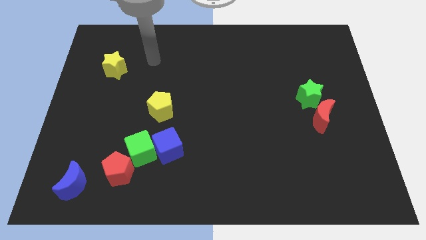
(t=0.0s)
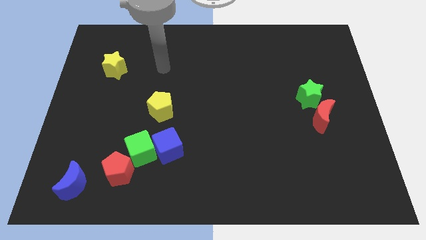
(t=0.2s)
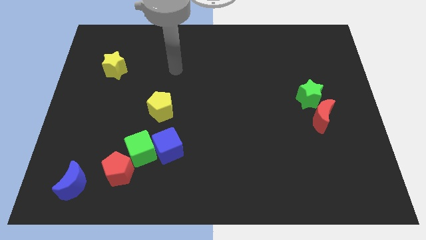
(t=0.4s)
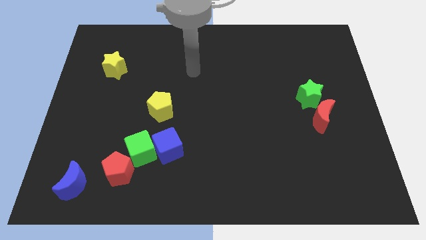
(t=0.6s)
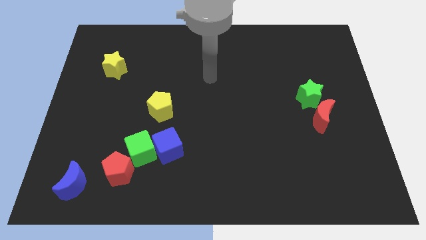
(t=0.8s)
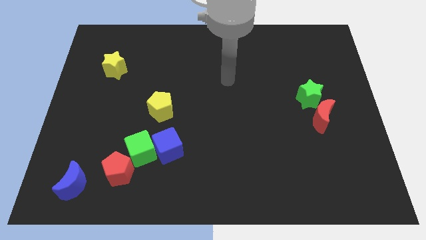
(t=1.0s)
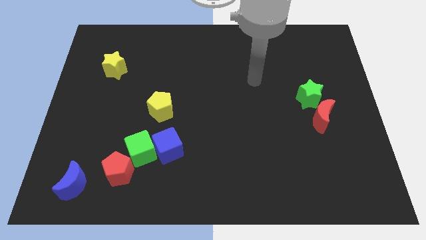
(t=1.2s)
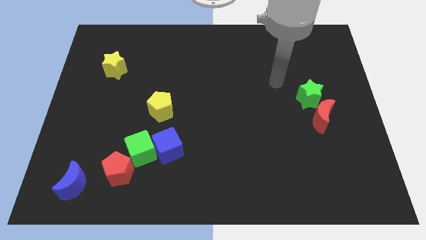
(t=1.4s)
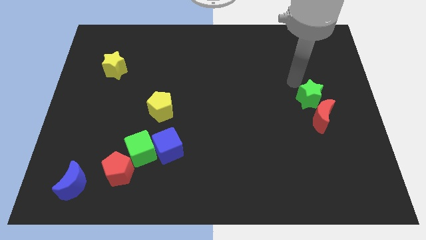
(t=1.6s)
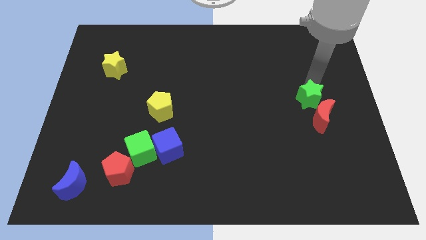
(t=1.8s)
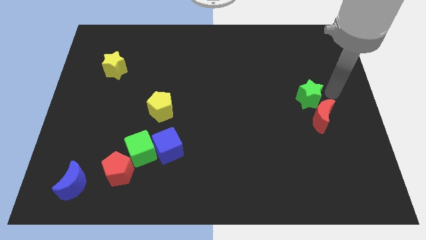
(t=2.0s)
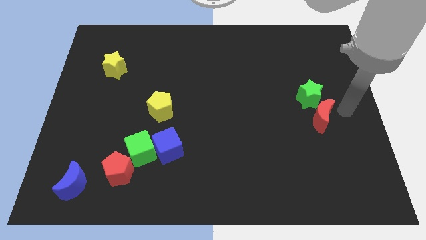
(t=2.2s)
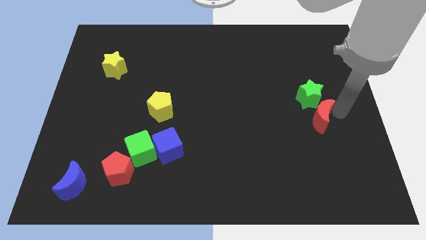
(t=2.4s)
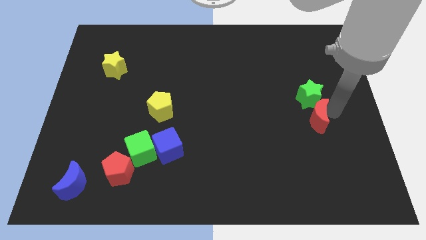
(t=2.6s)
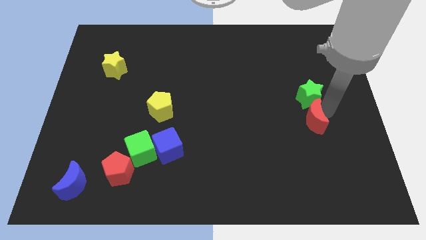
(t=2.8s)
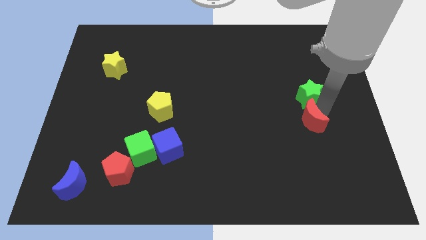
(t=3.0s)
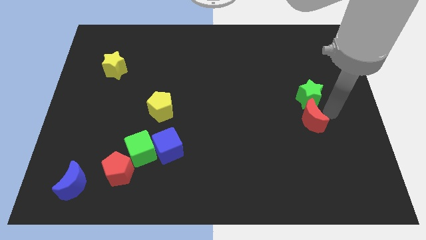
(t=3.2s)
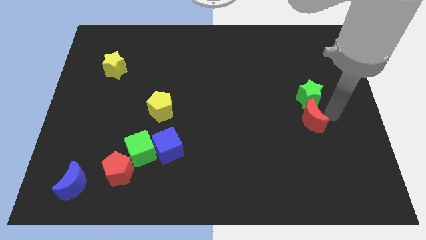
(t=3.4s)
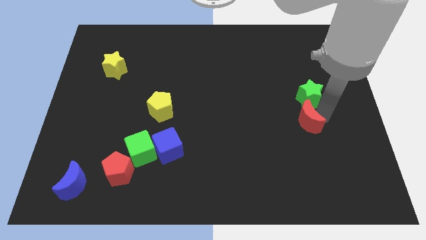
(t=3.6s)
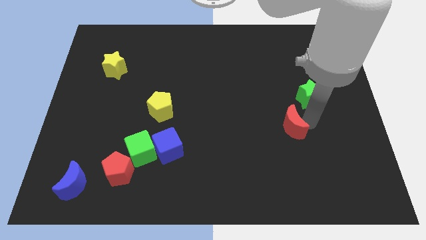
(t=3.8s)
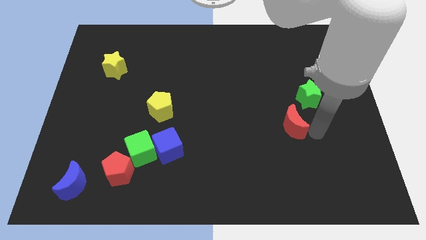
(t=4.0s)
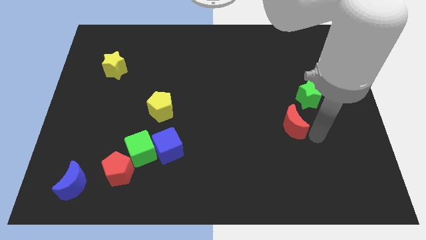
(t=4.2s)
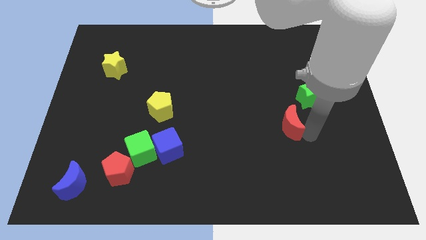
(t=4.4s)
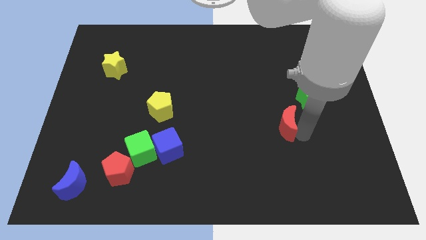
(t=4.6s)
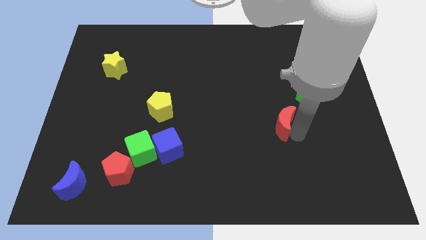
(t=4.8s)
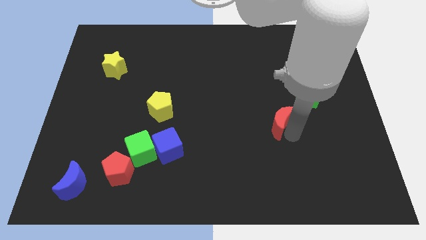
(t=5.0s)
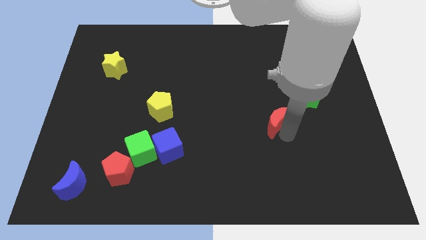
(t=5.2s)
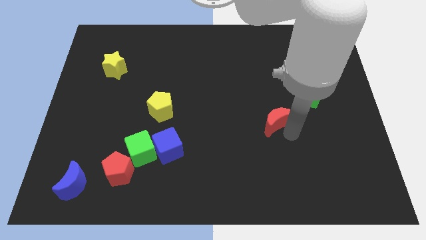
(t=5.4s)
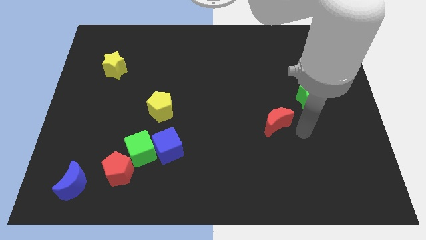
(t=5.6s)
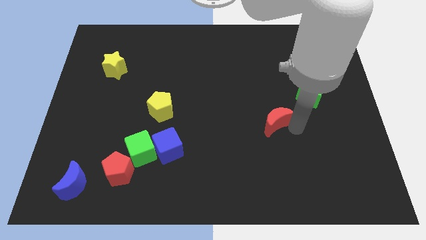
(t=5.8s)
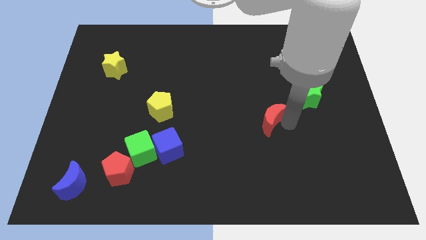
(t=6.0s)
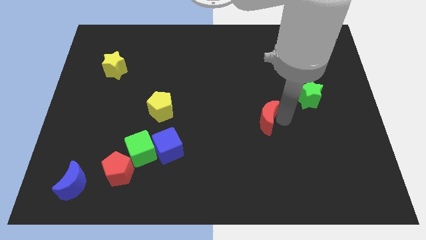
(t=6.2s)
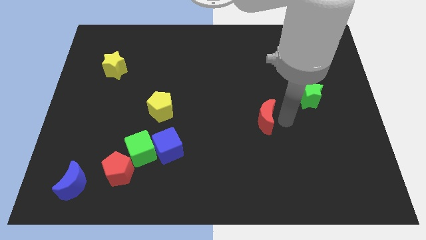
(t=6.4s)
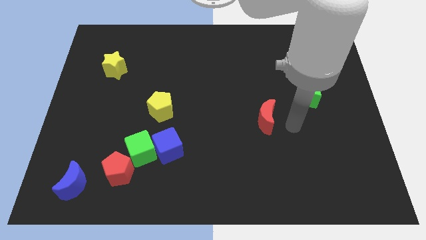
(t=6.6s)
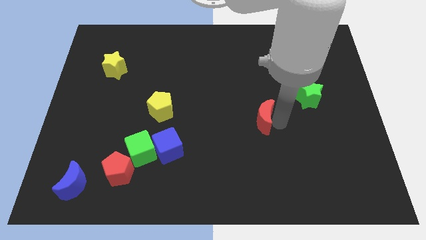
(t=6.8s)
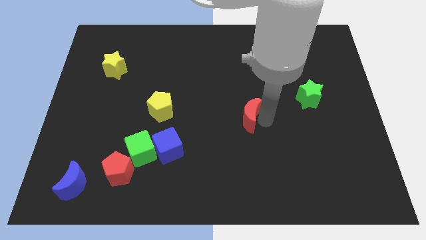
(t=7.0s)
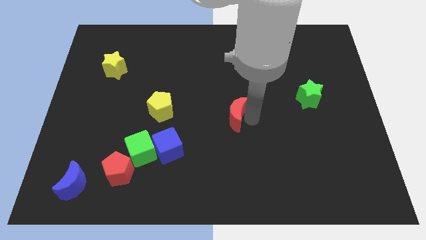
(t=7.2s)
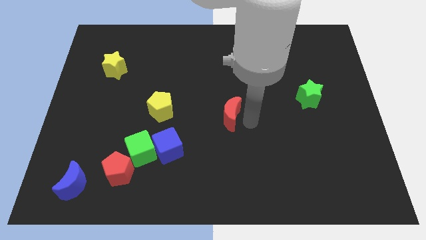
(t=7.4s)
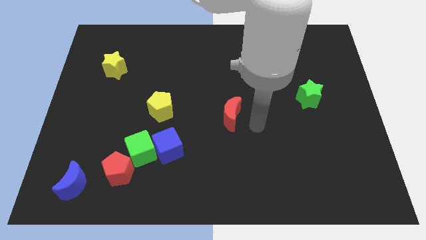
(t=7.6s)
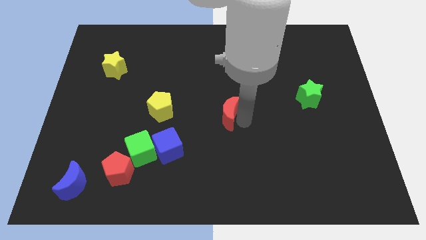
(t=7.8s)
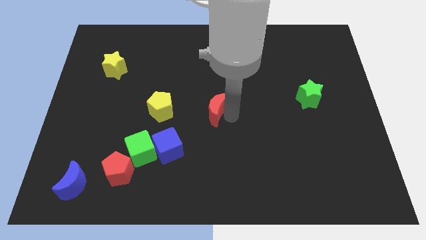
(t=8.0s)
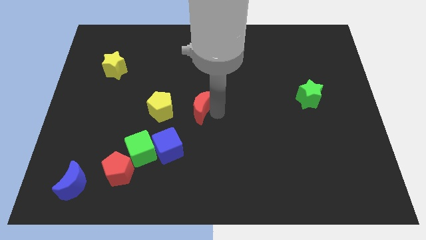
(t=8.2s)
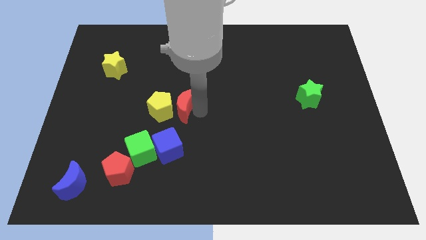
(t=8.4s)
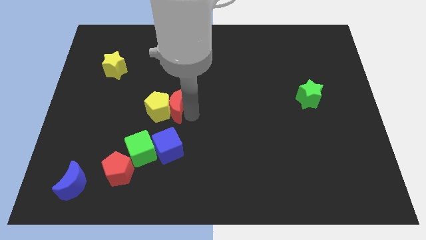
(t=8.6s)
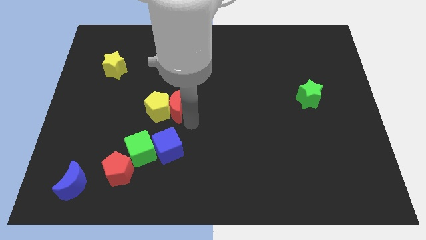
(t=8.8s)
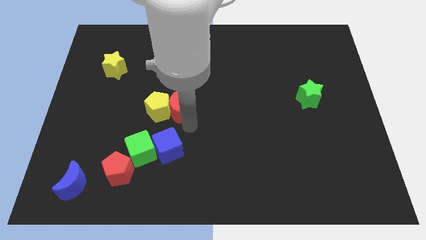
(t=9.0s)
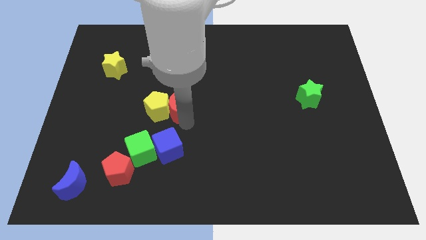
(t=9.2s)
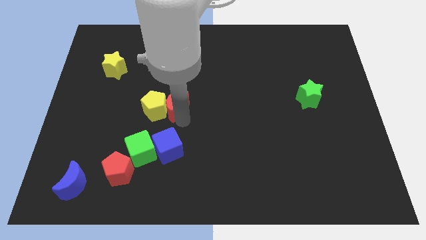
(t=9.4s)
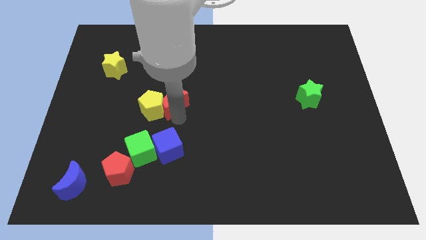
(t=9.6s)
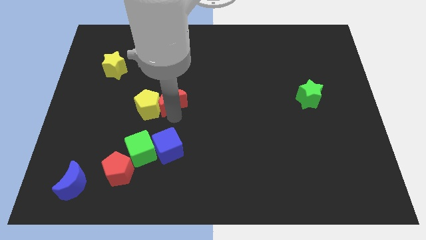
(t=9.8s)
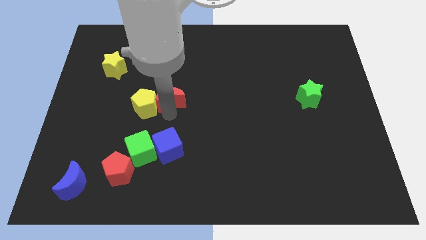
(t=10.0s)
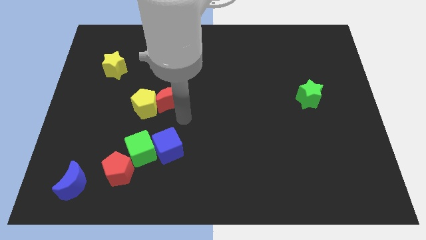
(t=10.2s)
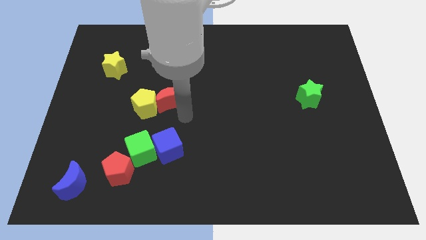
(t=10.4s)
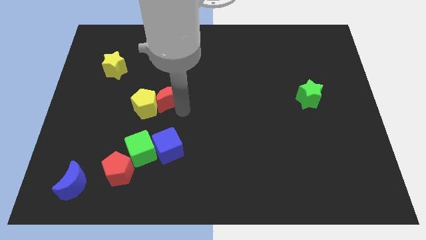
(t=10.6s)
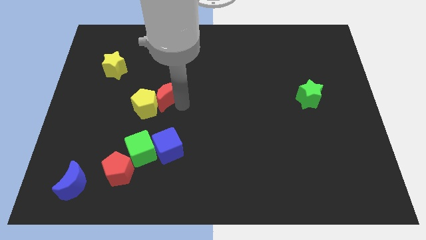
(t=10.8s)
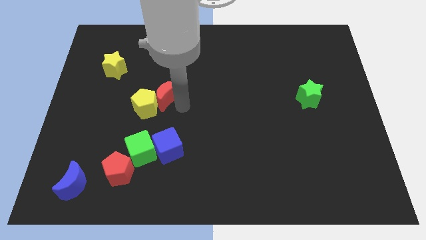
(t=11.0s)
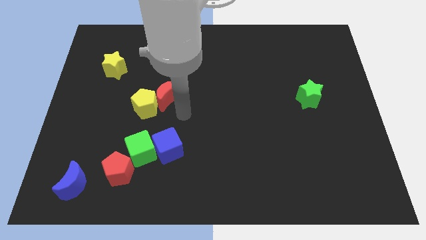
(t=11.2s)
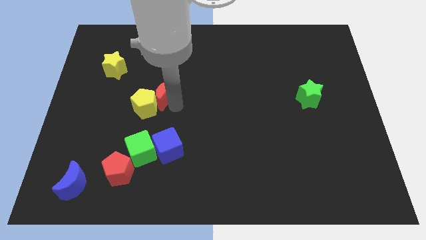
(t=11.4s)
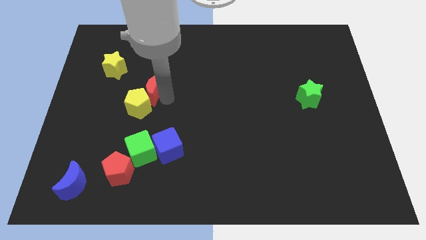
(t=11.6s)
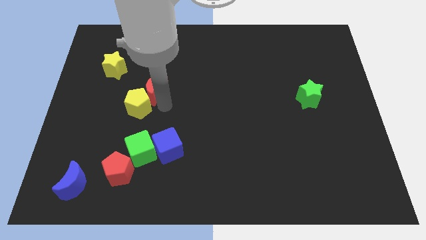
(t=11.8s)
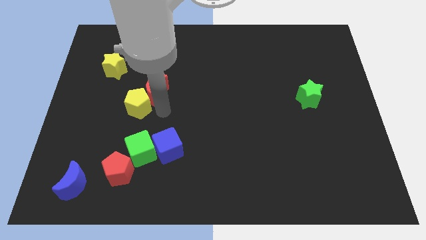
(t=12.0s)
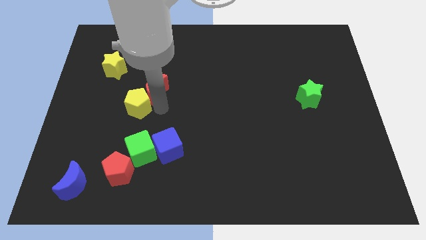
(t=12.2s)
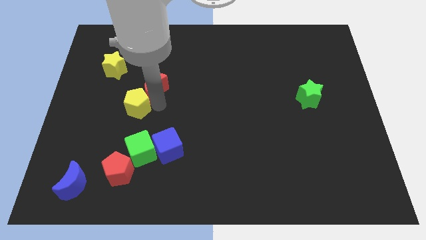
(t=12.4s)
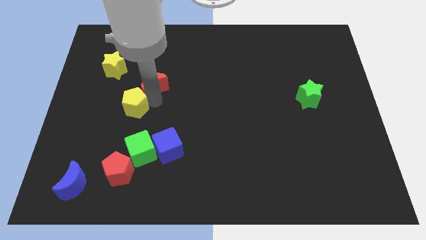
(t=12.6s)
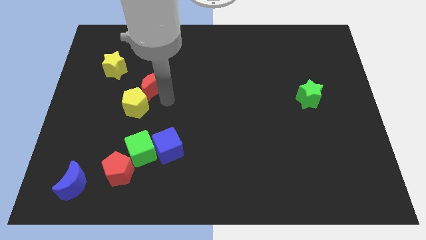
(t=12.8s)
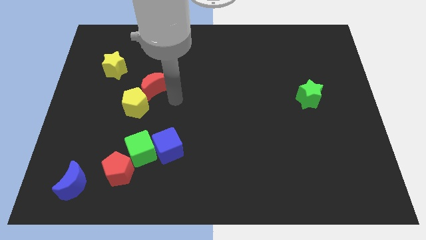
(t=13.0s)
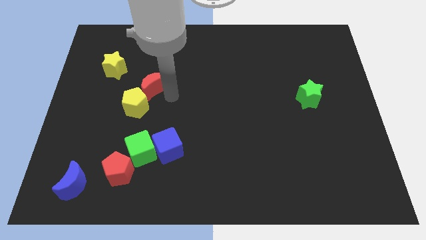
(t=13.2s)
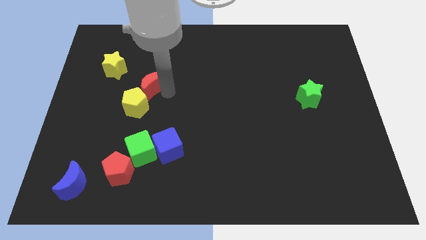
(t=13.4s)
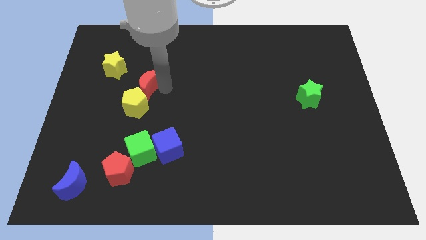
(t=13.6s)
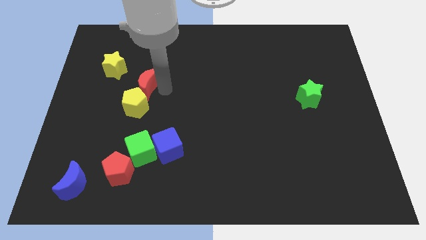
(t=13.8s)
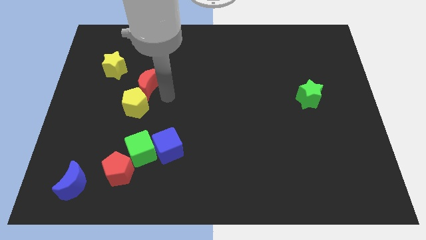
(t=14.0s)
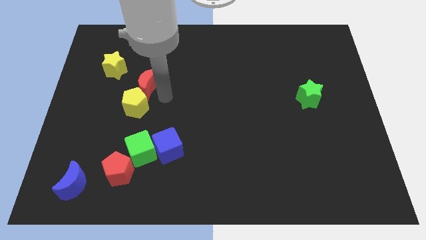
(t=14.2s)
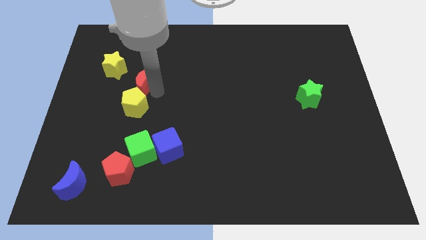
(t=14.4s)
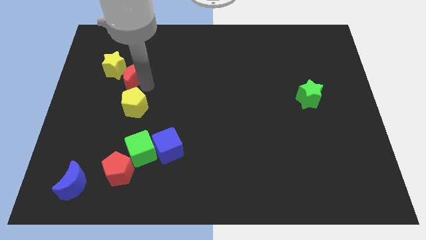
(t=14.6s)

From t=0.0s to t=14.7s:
move the red moon to the yellow star
